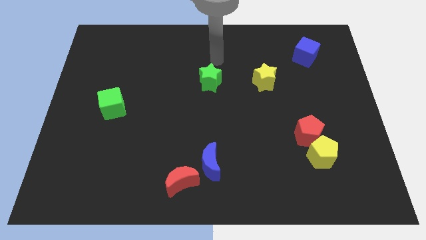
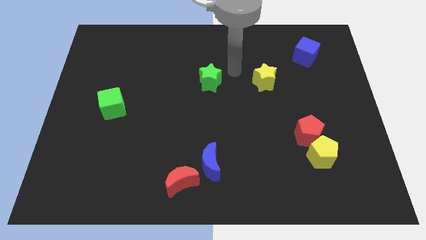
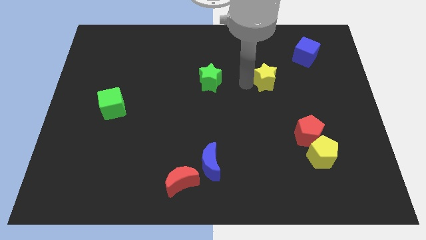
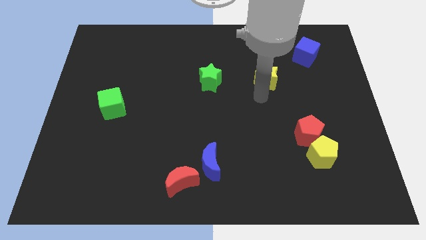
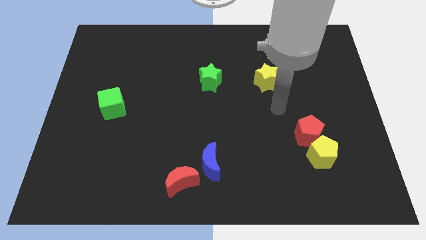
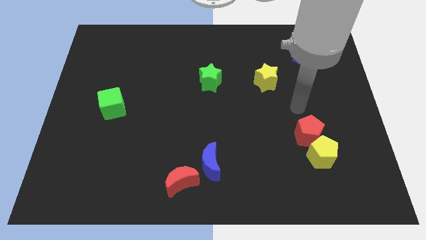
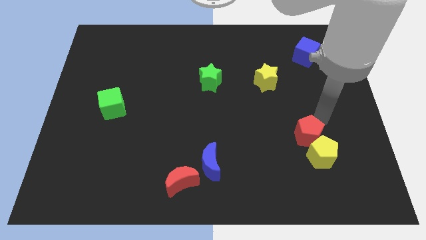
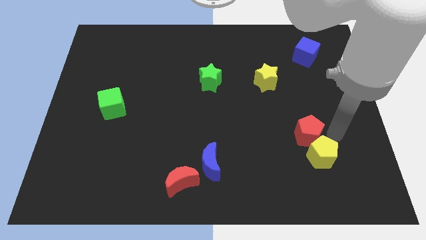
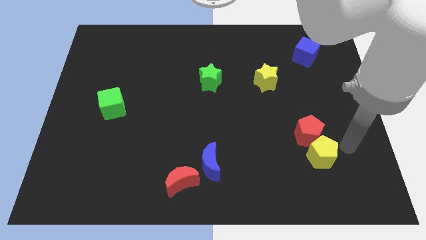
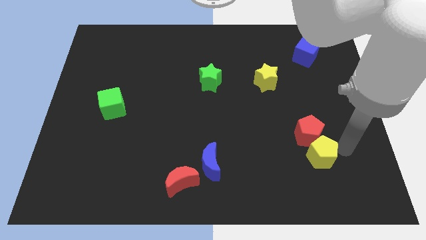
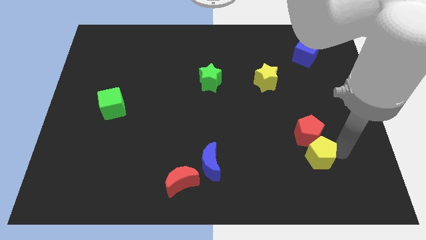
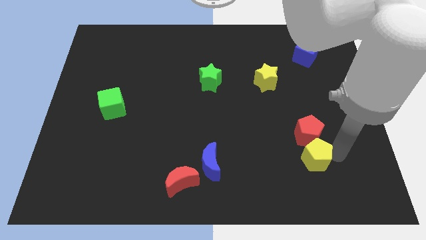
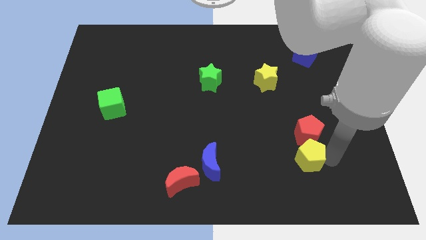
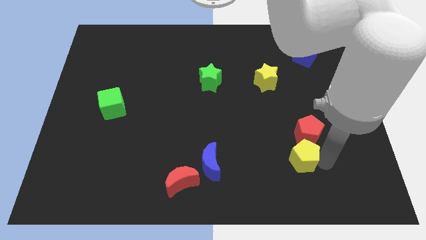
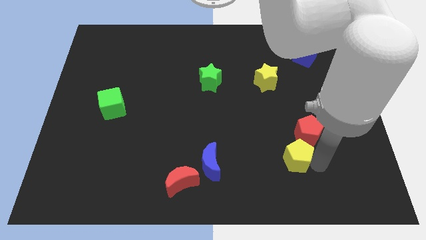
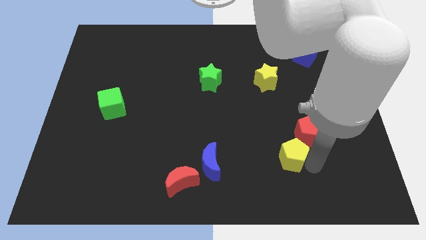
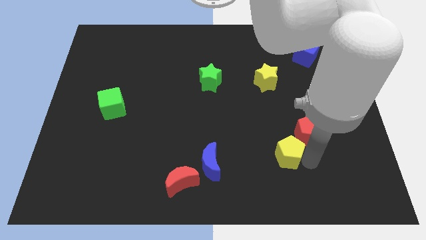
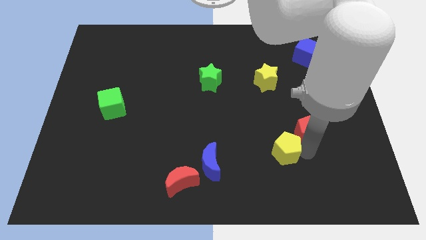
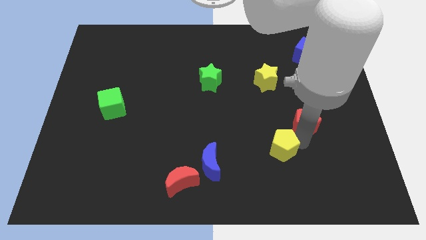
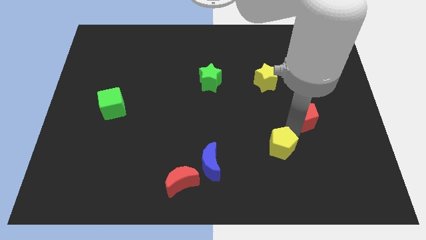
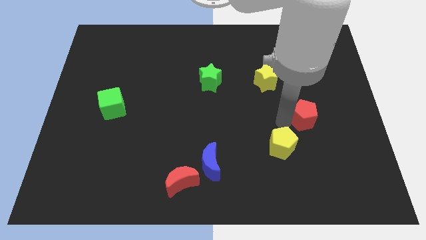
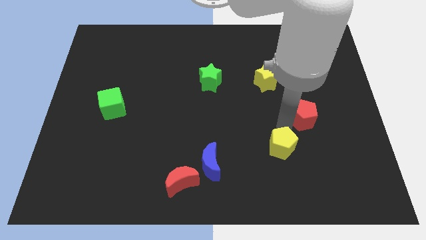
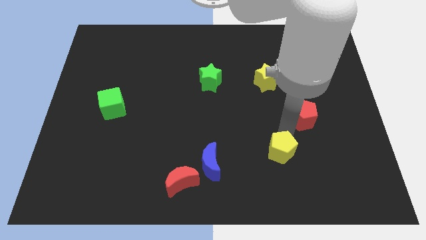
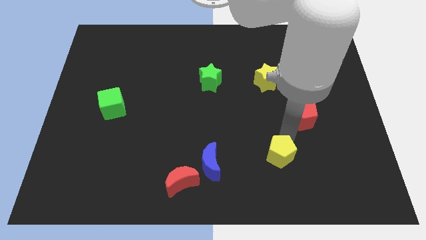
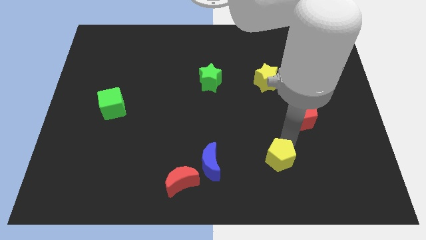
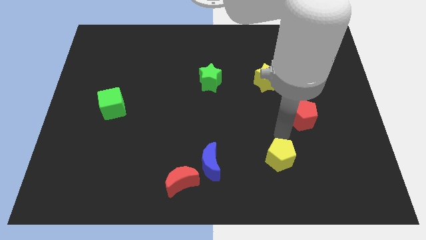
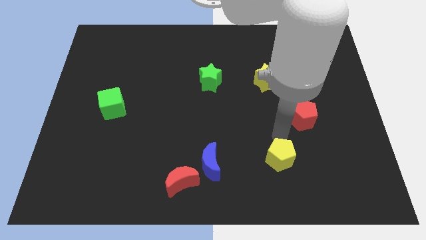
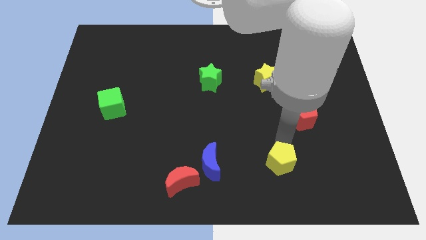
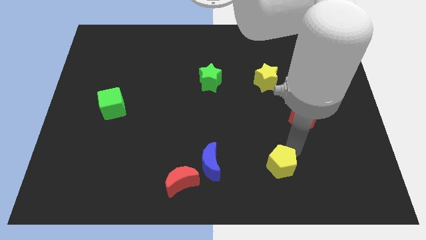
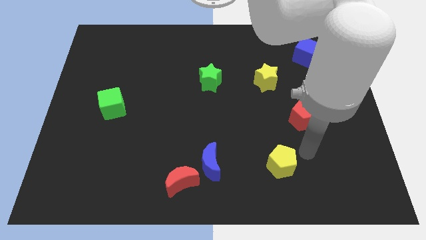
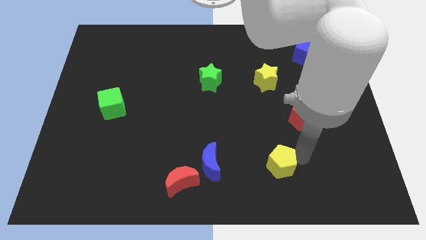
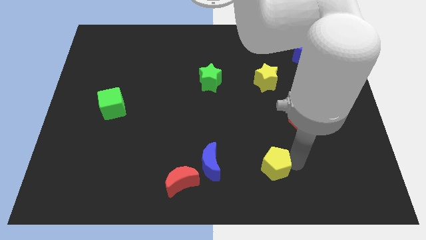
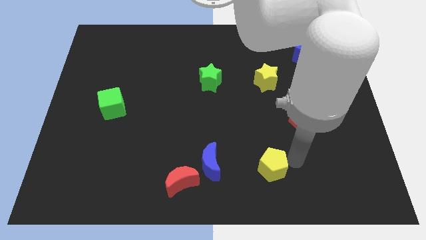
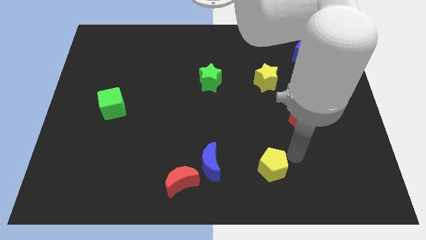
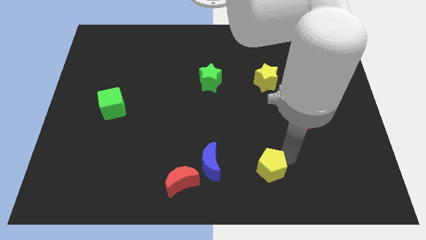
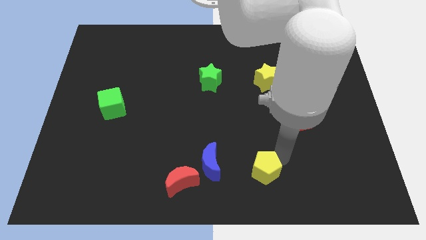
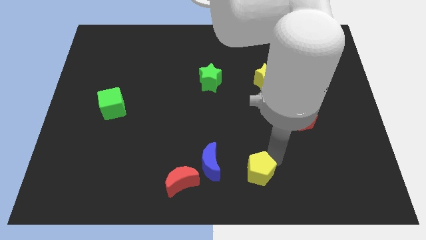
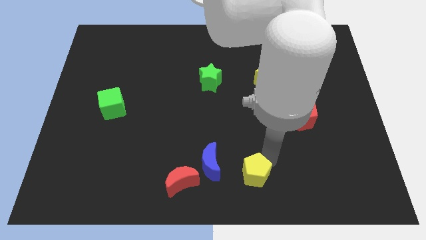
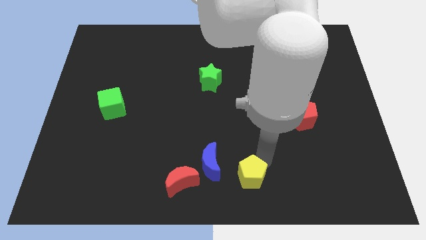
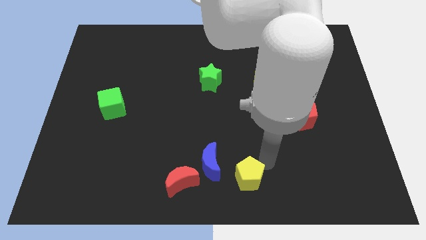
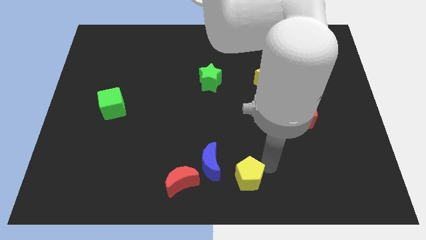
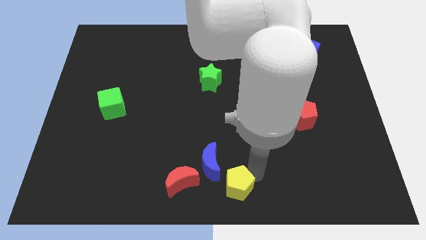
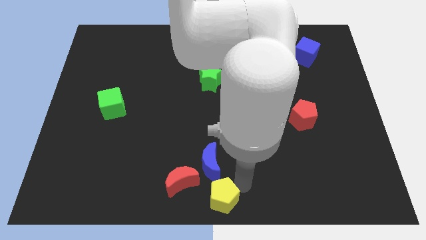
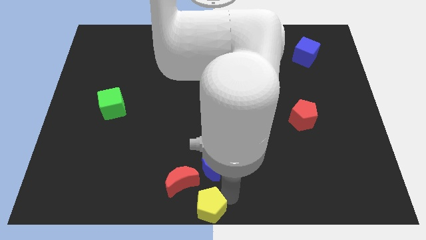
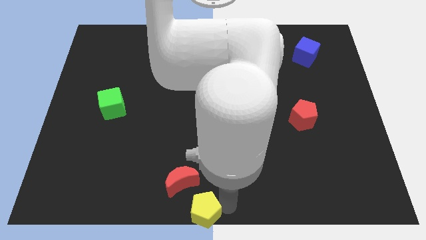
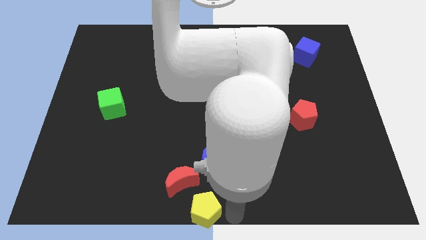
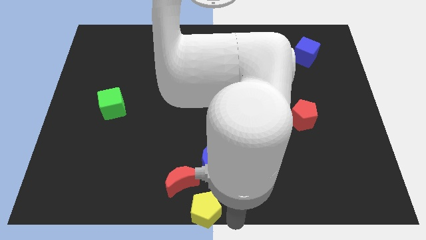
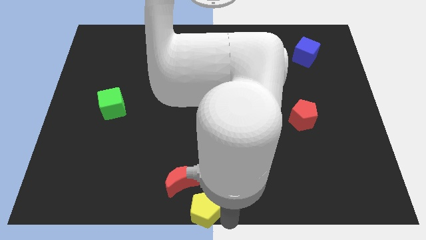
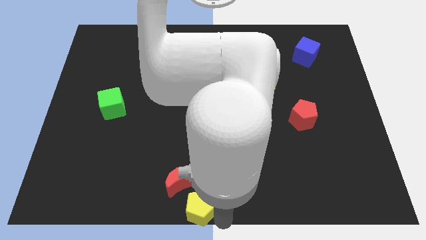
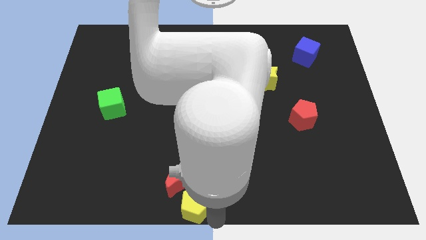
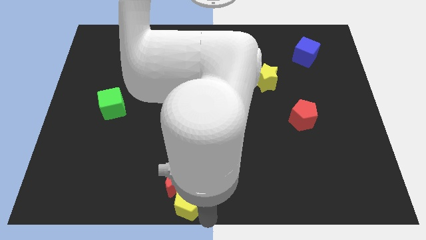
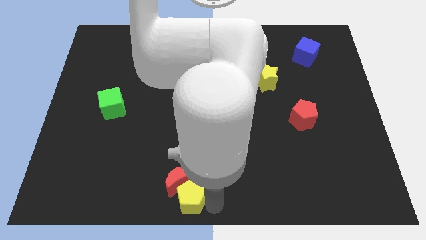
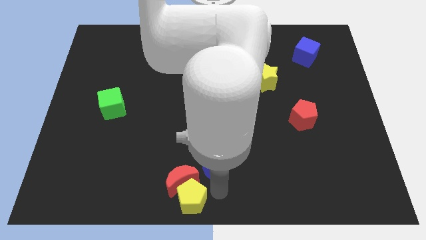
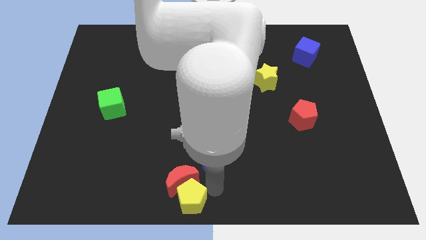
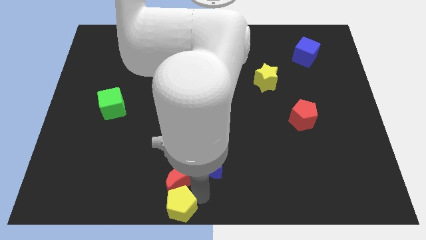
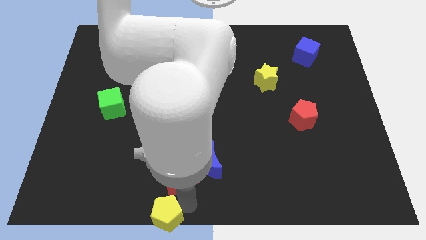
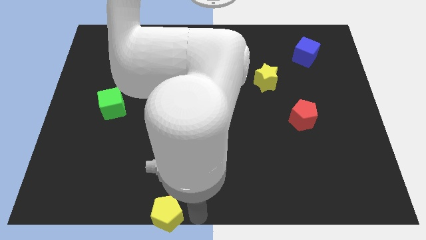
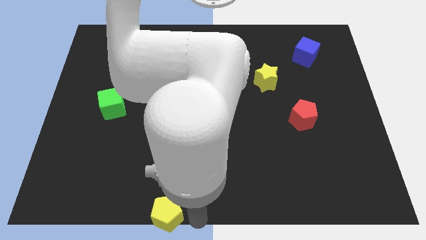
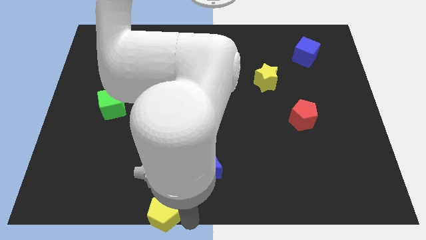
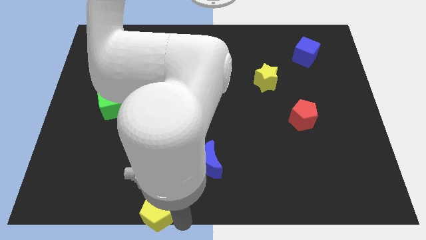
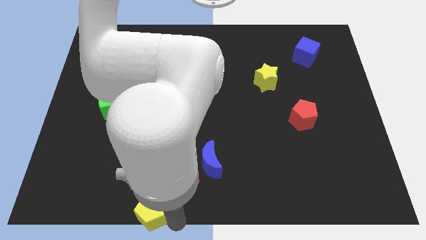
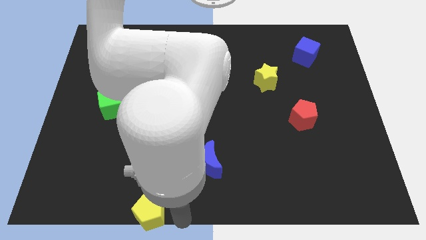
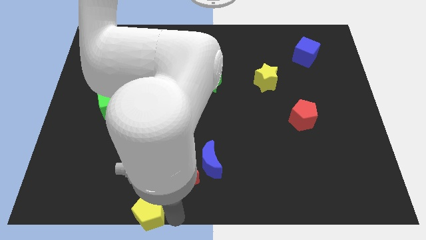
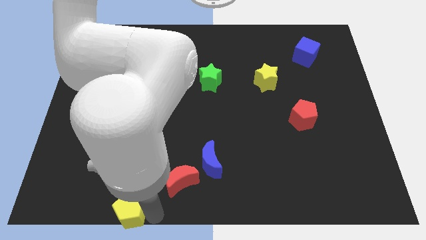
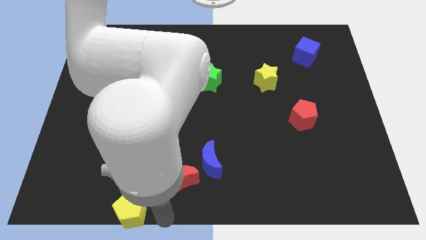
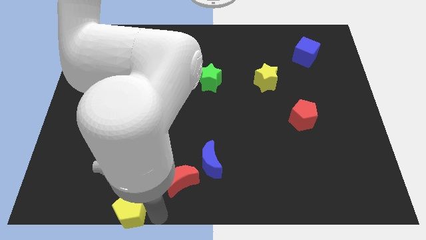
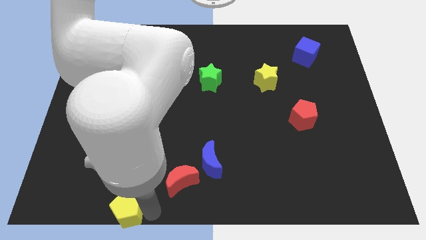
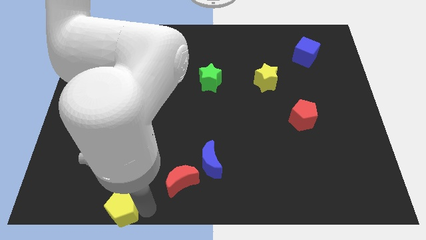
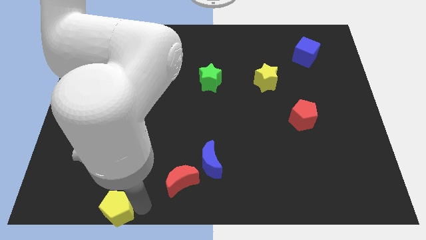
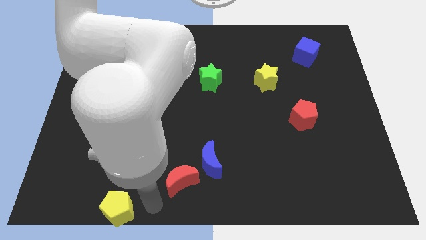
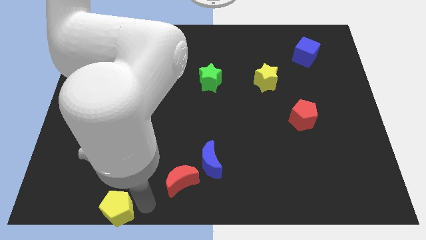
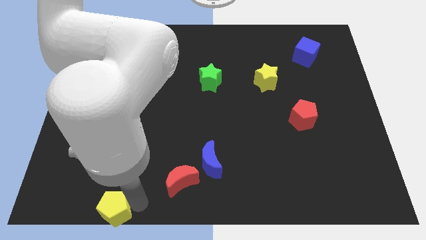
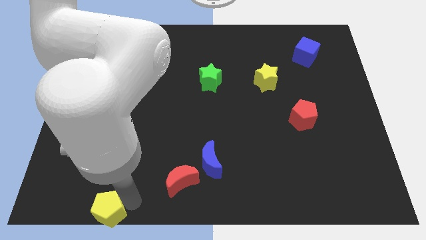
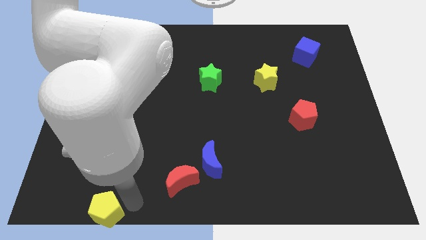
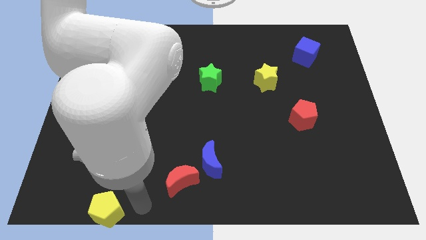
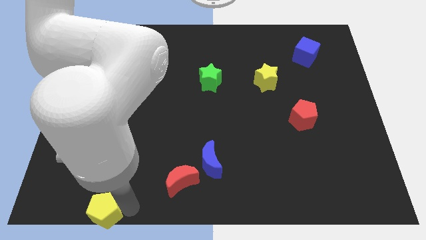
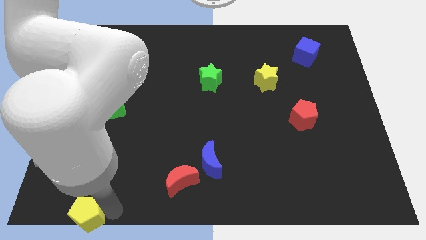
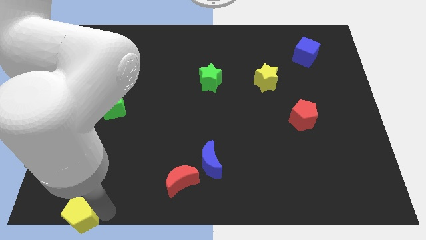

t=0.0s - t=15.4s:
put the yellow pentagon to the bottom left

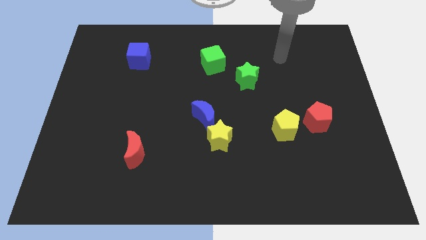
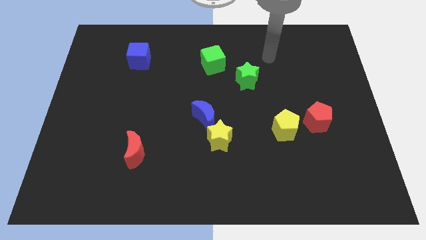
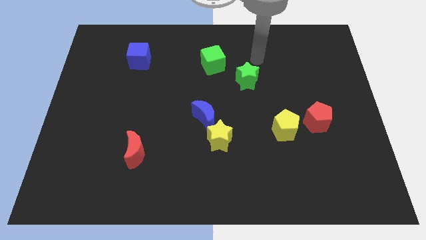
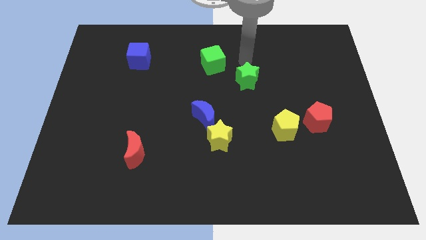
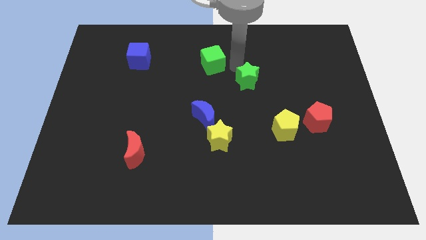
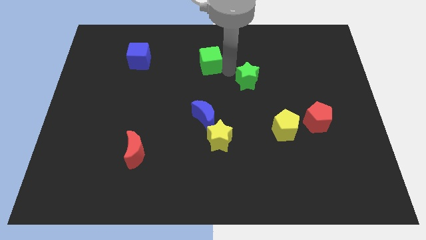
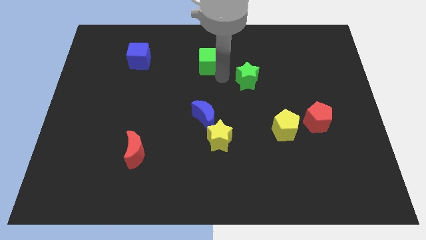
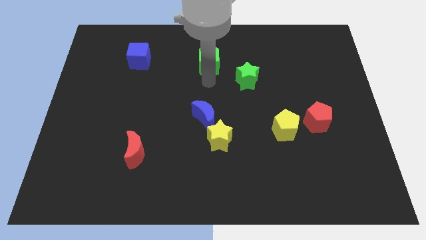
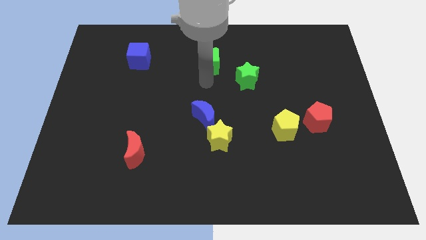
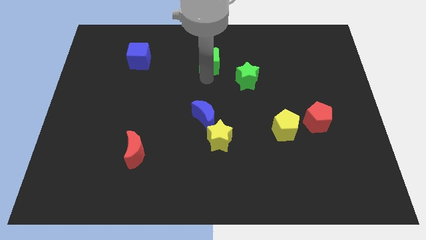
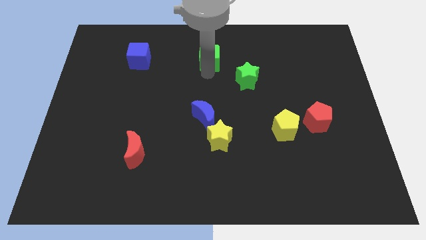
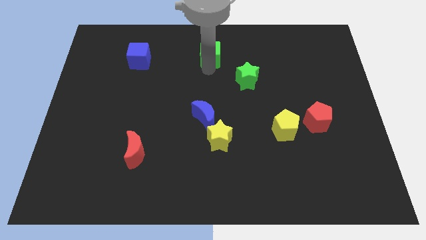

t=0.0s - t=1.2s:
put the green cube to the top
